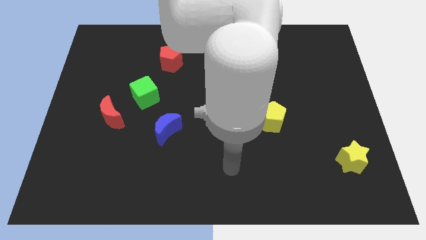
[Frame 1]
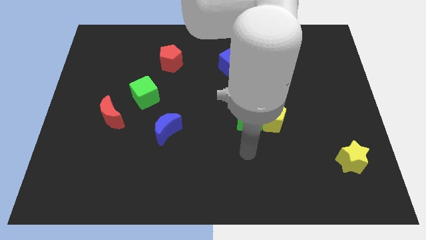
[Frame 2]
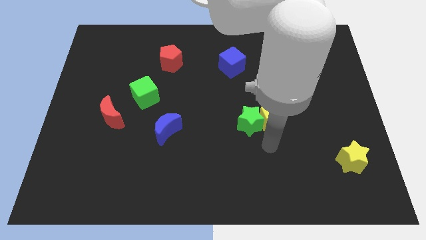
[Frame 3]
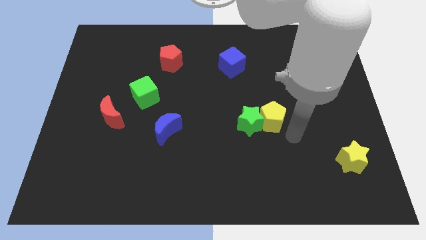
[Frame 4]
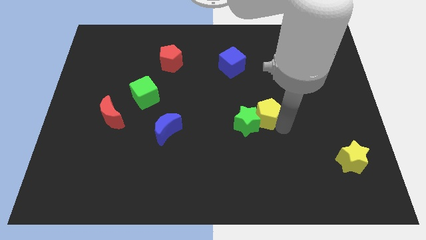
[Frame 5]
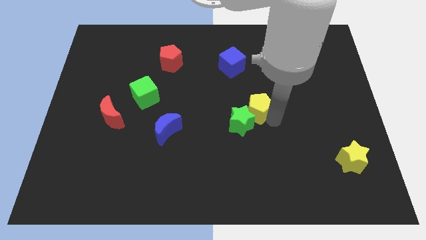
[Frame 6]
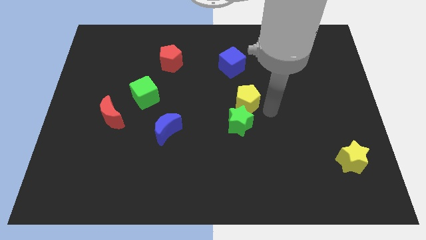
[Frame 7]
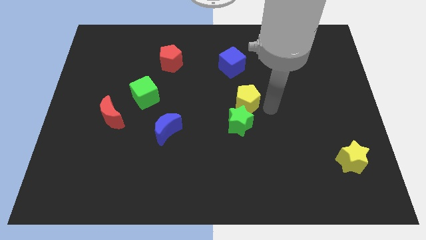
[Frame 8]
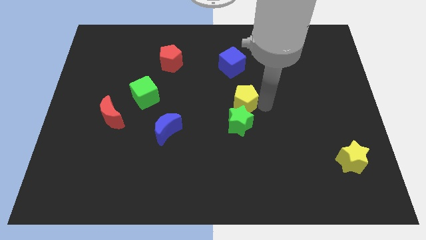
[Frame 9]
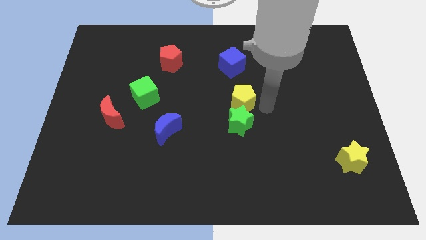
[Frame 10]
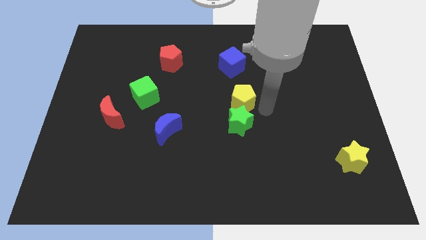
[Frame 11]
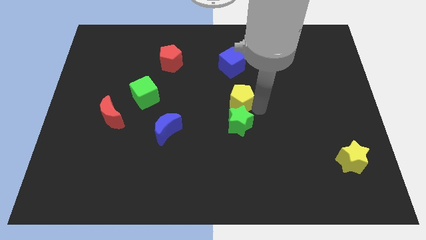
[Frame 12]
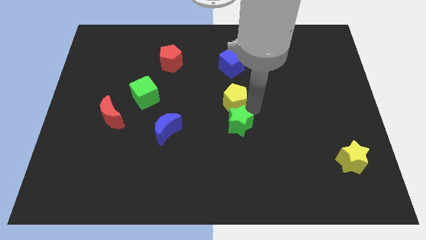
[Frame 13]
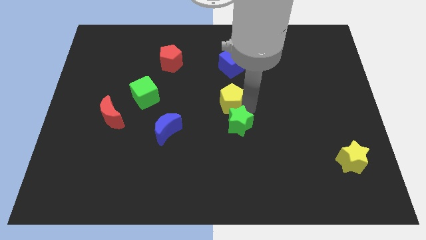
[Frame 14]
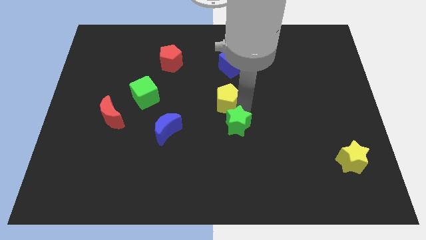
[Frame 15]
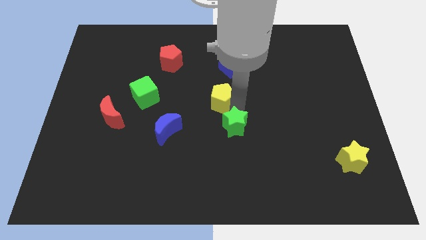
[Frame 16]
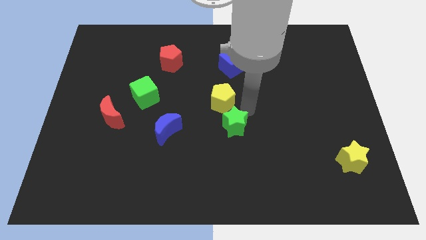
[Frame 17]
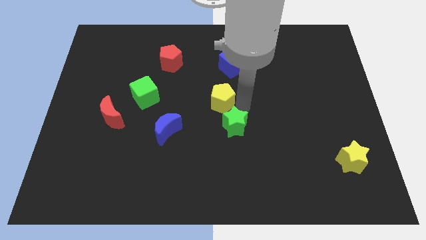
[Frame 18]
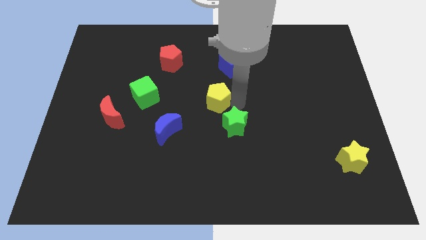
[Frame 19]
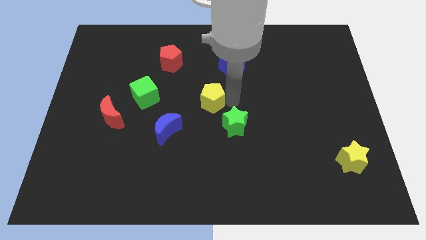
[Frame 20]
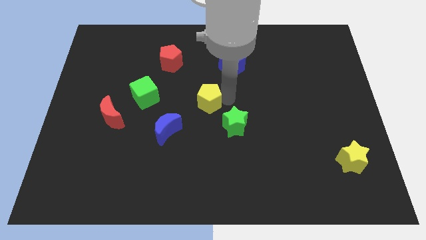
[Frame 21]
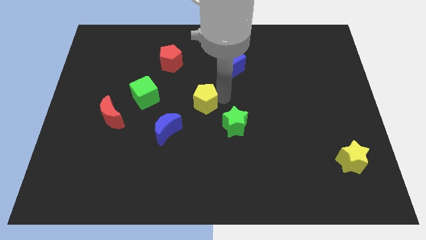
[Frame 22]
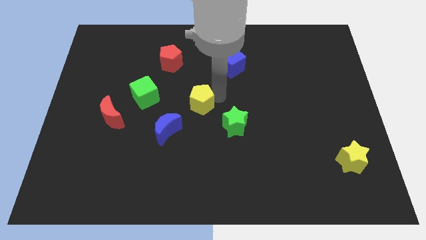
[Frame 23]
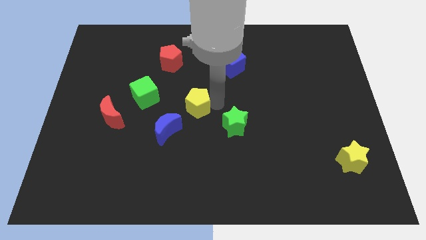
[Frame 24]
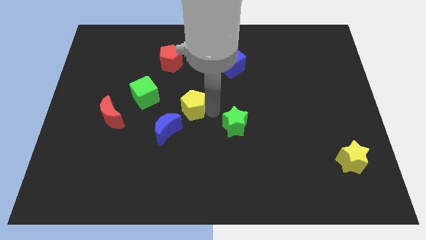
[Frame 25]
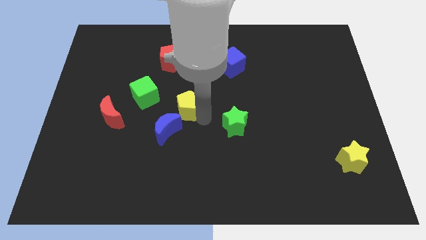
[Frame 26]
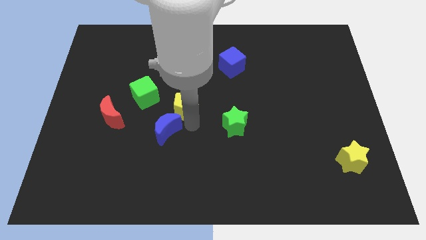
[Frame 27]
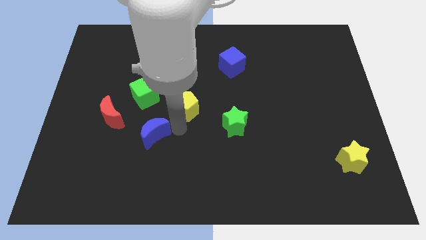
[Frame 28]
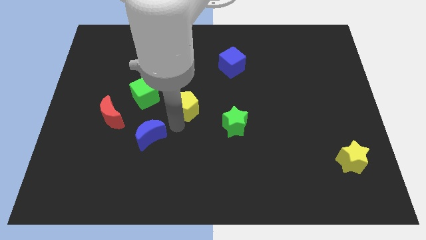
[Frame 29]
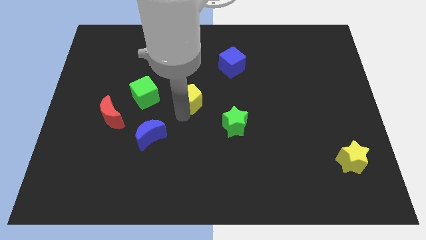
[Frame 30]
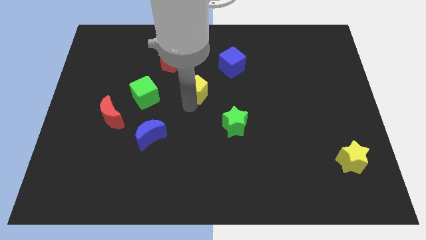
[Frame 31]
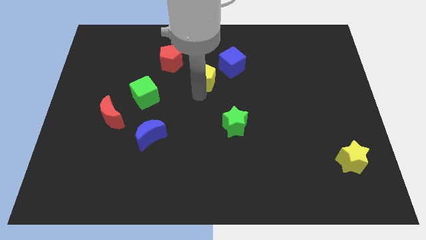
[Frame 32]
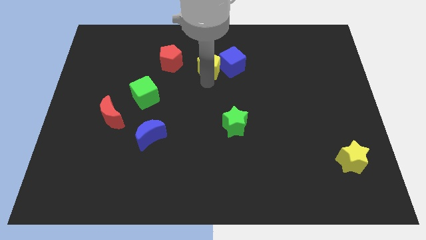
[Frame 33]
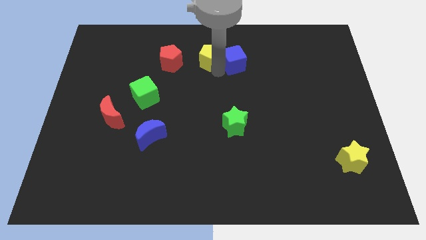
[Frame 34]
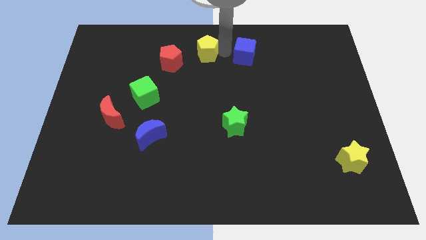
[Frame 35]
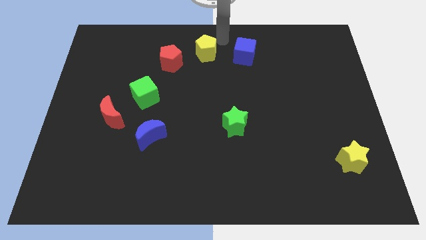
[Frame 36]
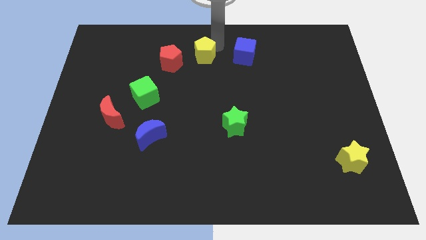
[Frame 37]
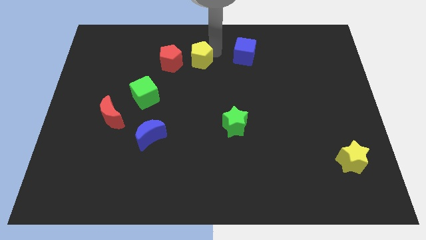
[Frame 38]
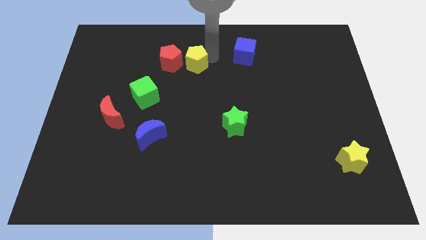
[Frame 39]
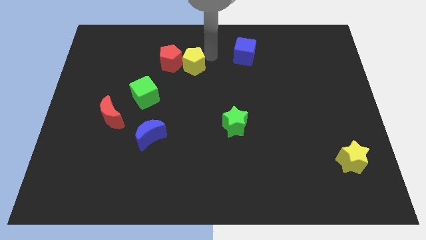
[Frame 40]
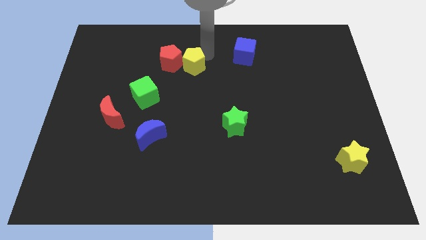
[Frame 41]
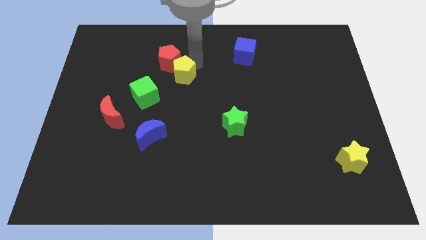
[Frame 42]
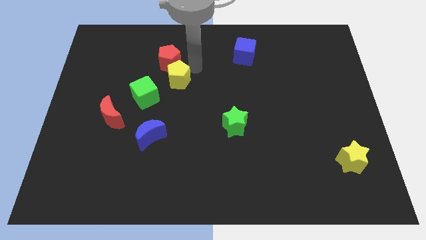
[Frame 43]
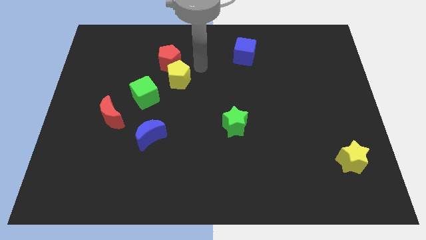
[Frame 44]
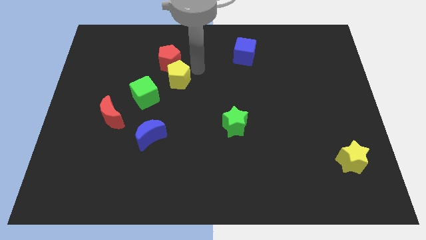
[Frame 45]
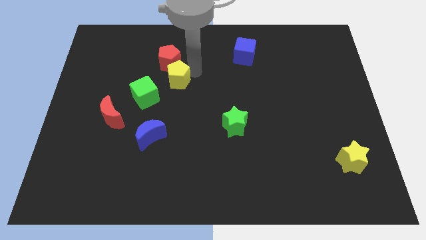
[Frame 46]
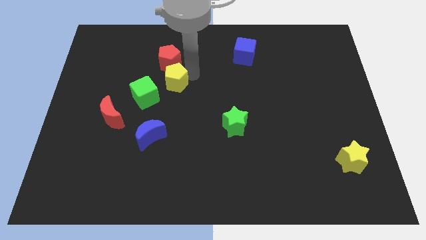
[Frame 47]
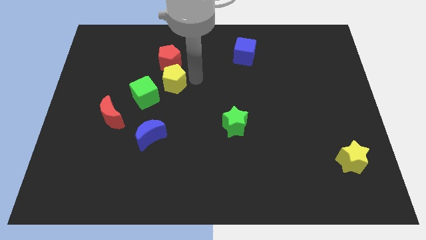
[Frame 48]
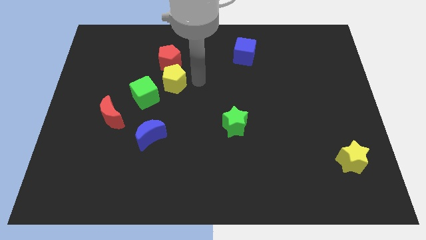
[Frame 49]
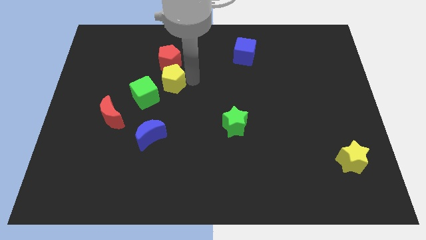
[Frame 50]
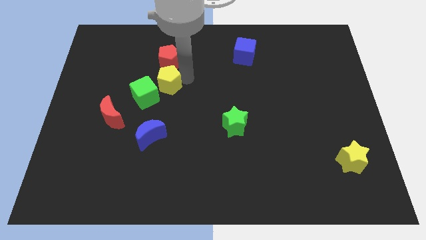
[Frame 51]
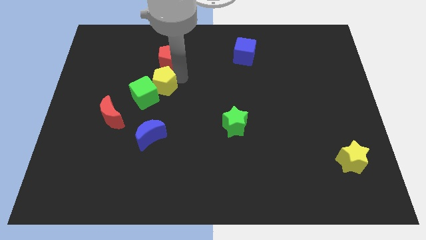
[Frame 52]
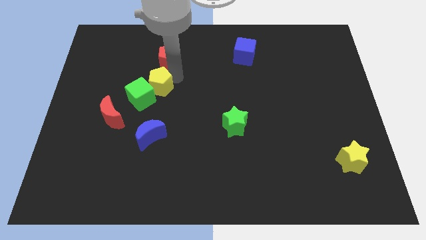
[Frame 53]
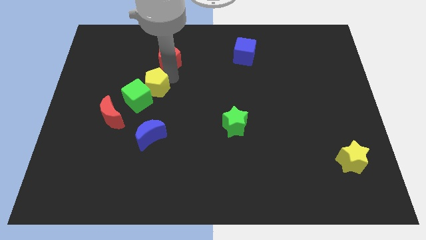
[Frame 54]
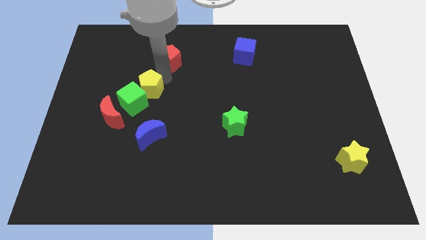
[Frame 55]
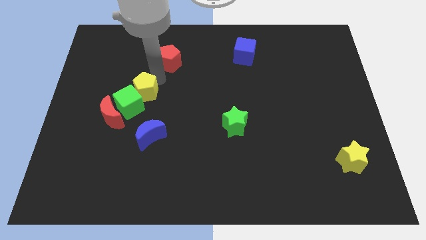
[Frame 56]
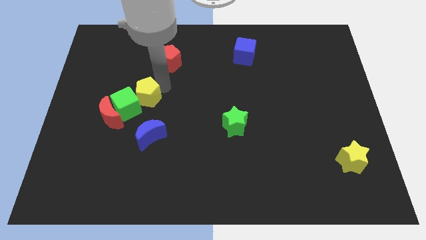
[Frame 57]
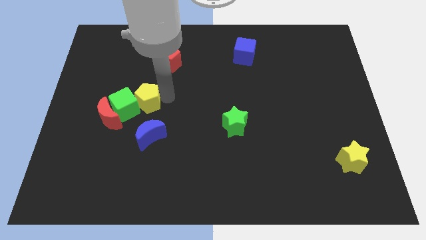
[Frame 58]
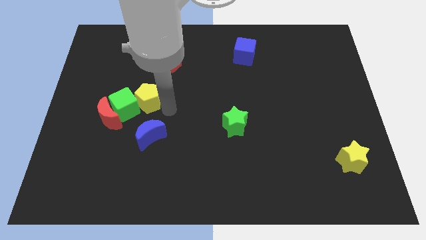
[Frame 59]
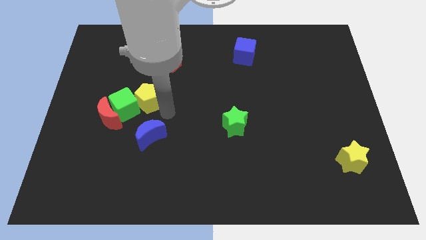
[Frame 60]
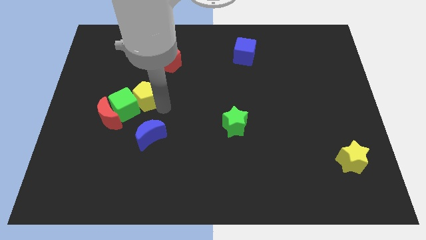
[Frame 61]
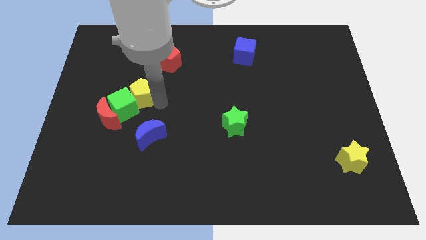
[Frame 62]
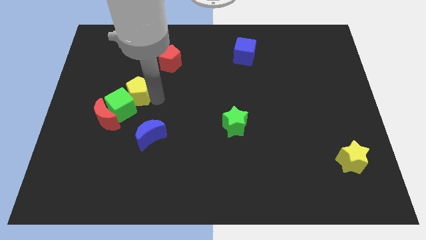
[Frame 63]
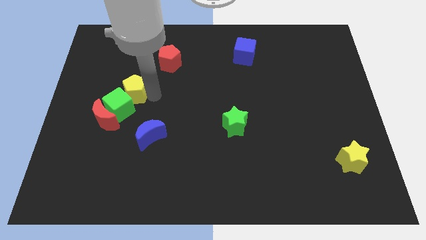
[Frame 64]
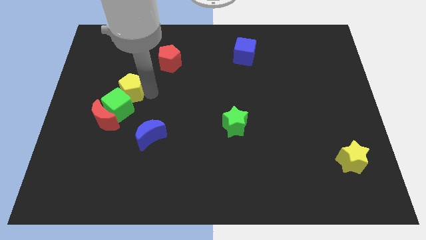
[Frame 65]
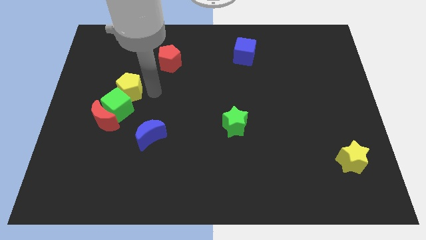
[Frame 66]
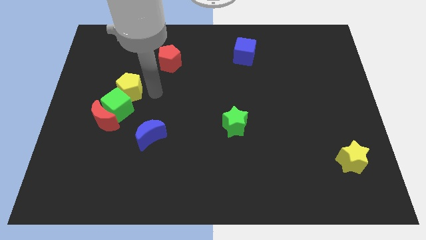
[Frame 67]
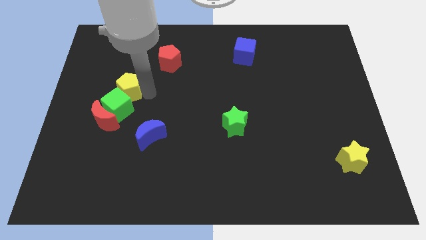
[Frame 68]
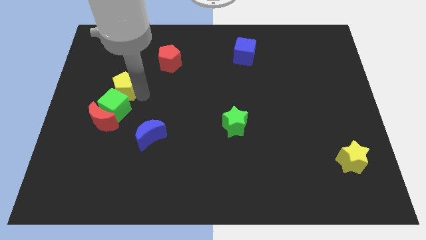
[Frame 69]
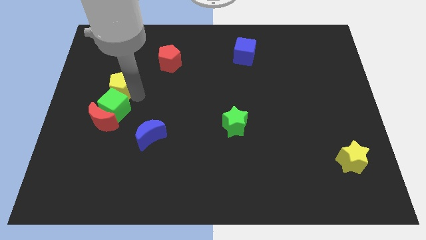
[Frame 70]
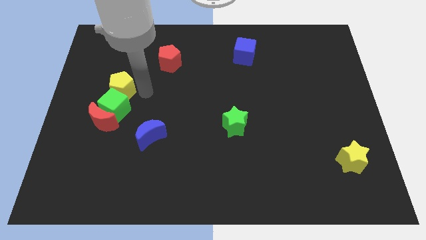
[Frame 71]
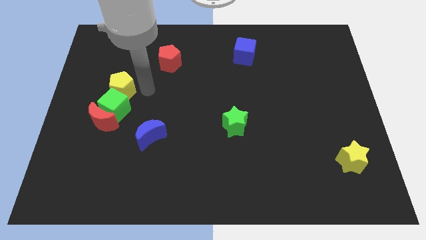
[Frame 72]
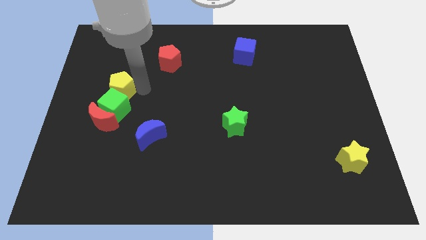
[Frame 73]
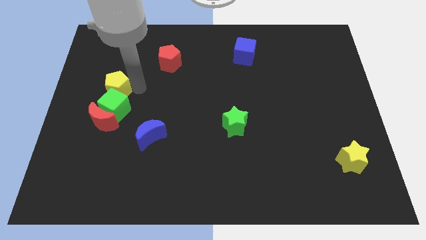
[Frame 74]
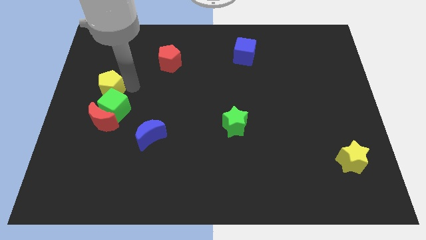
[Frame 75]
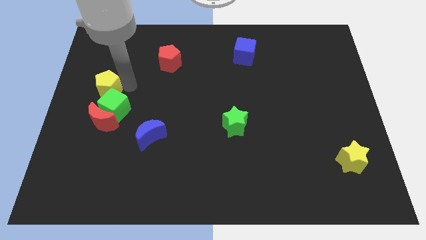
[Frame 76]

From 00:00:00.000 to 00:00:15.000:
slide the yellow pentagon to the left side
